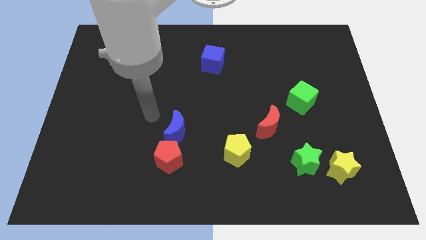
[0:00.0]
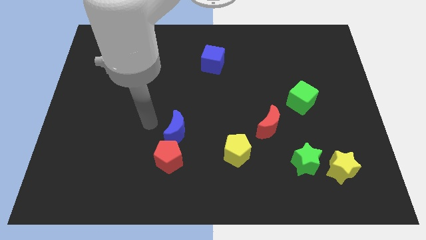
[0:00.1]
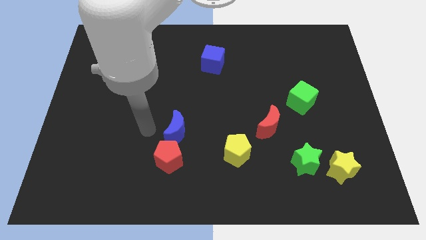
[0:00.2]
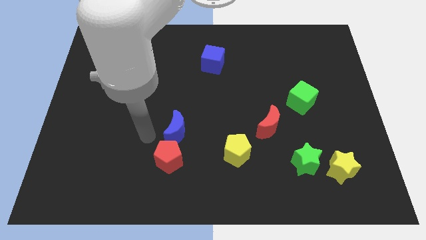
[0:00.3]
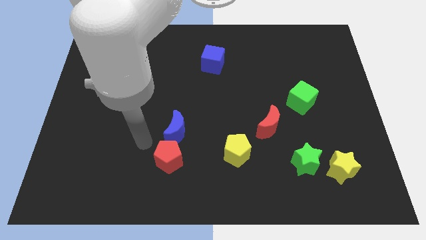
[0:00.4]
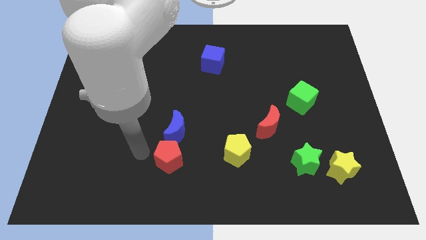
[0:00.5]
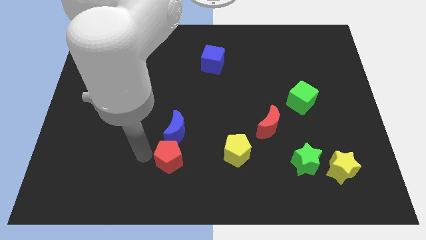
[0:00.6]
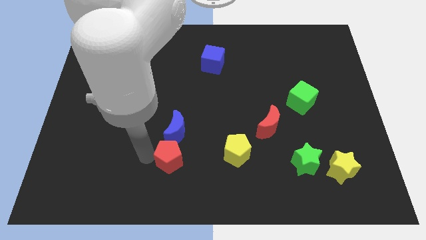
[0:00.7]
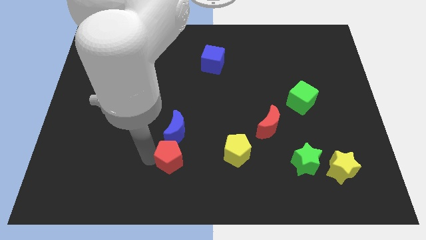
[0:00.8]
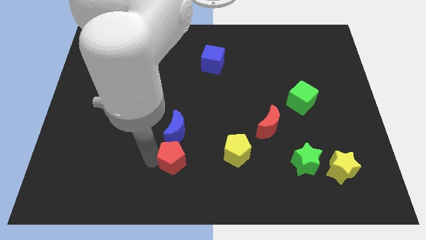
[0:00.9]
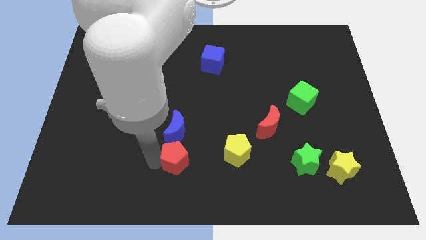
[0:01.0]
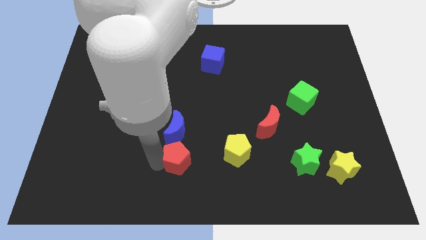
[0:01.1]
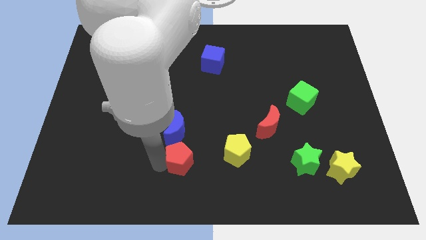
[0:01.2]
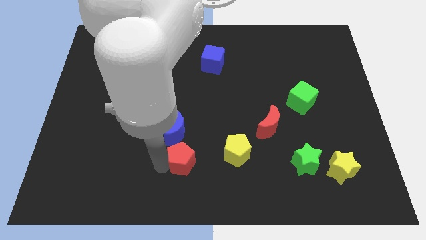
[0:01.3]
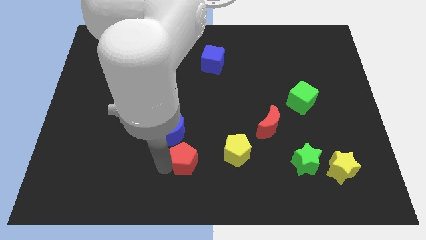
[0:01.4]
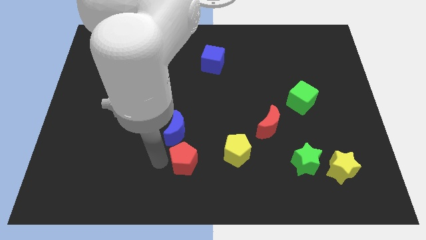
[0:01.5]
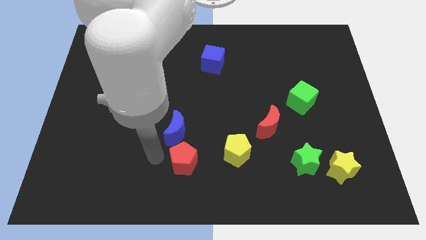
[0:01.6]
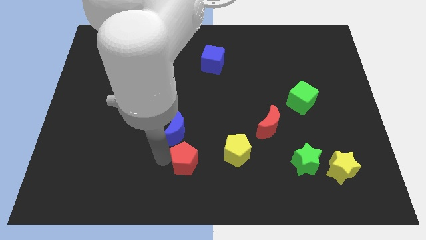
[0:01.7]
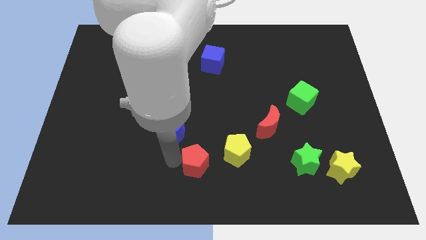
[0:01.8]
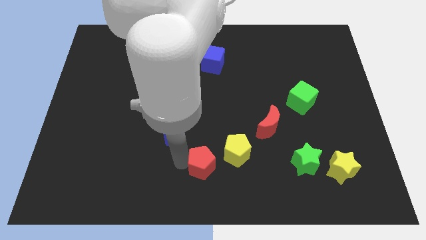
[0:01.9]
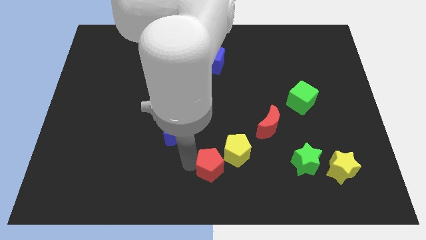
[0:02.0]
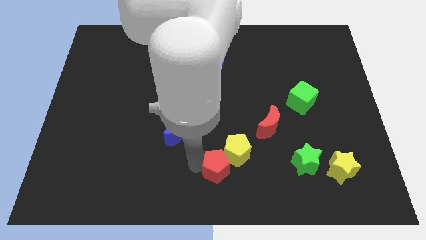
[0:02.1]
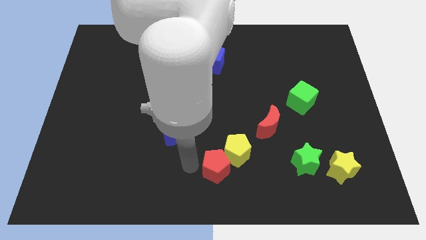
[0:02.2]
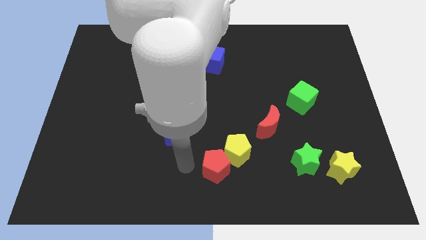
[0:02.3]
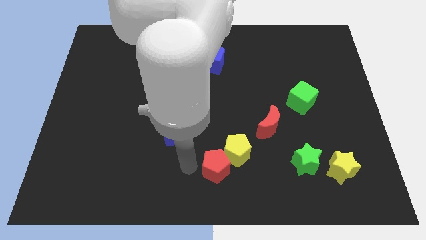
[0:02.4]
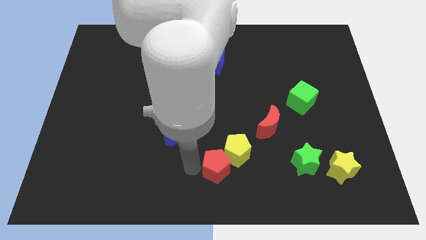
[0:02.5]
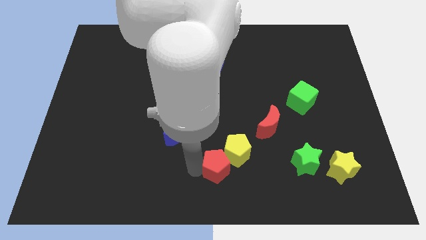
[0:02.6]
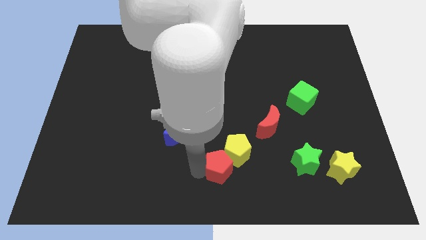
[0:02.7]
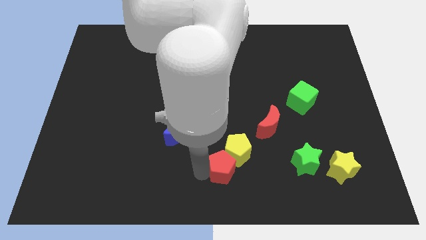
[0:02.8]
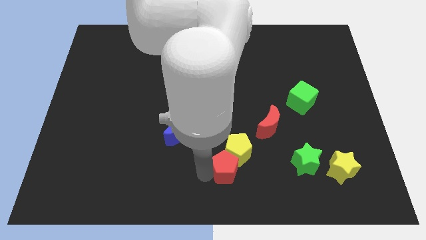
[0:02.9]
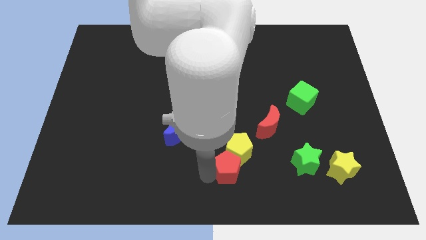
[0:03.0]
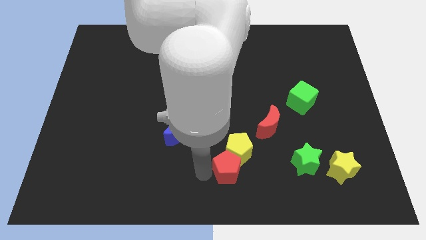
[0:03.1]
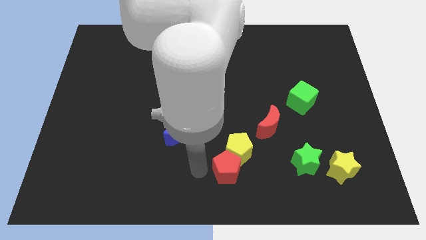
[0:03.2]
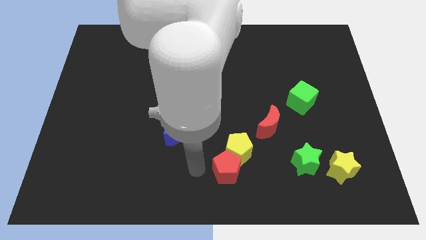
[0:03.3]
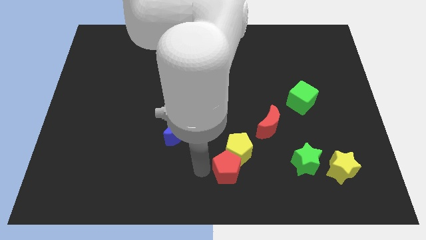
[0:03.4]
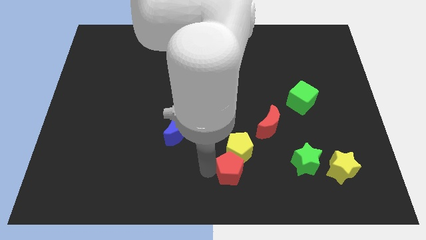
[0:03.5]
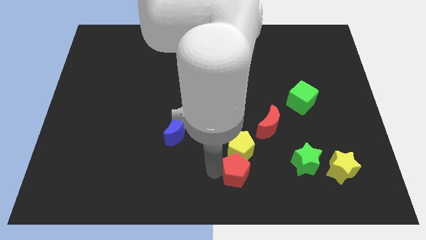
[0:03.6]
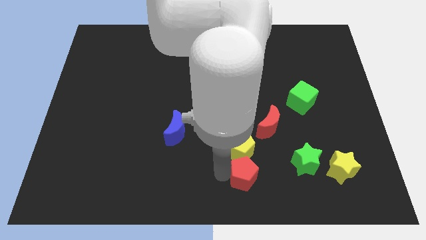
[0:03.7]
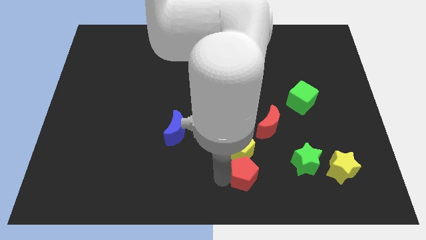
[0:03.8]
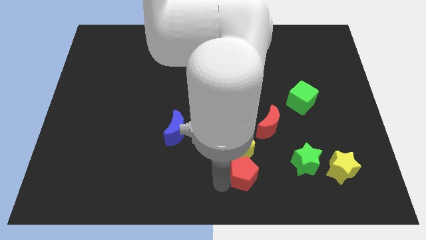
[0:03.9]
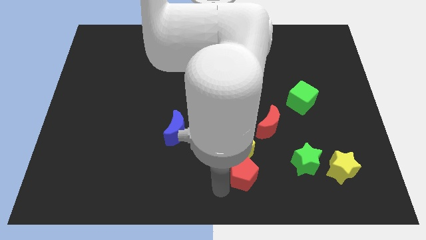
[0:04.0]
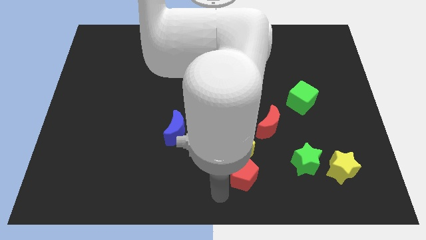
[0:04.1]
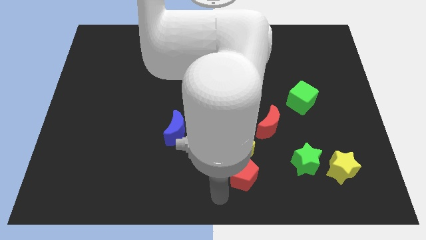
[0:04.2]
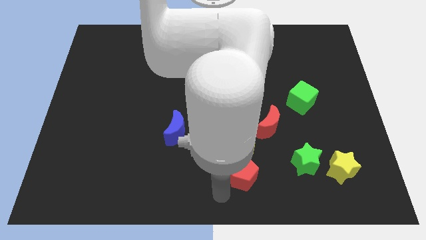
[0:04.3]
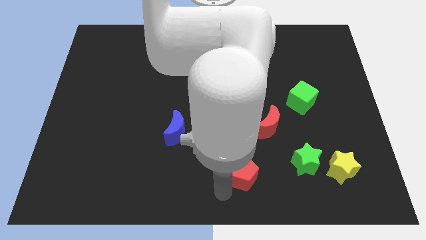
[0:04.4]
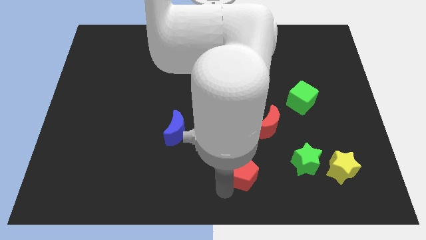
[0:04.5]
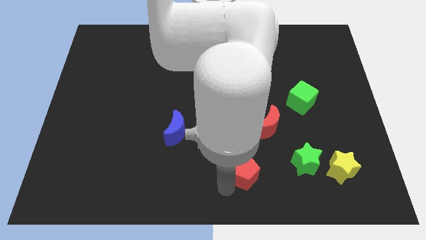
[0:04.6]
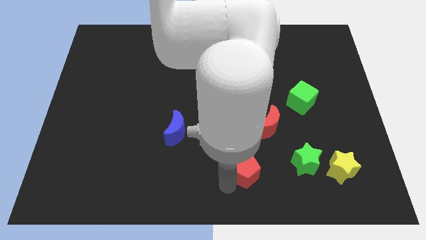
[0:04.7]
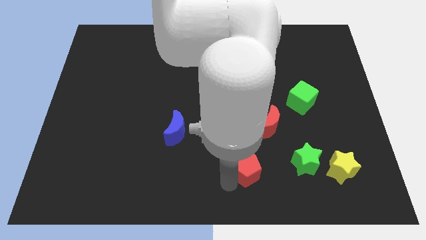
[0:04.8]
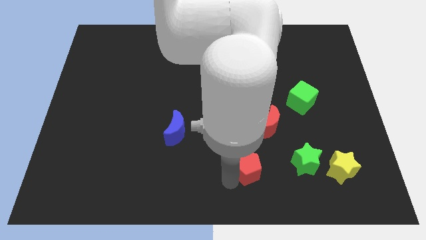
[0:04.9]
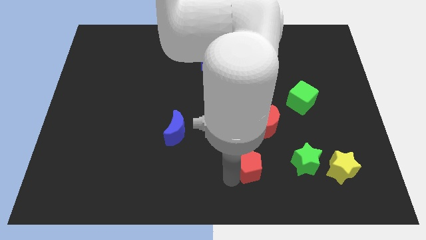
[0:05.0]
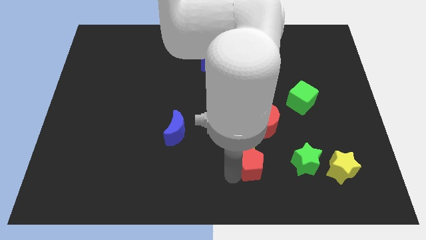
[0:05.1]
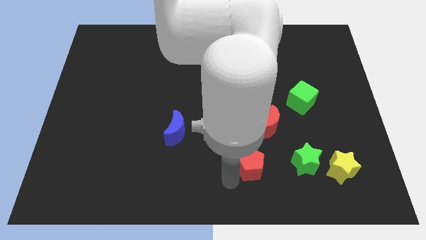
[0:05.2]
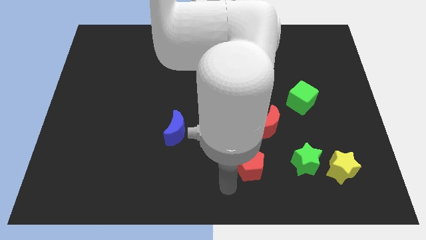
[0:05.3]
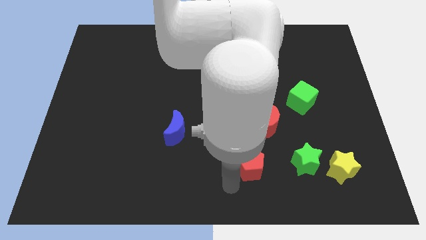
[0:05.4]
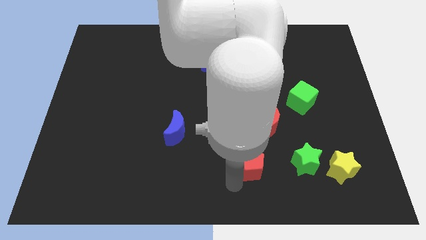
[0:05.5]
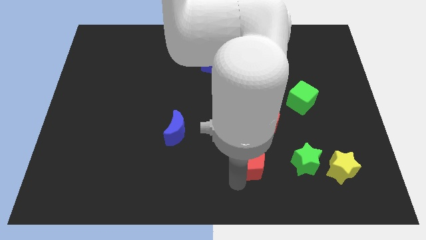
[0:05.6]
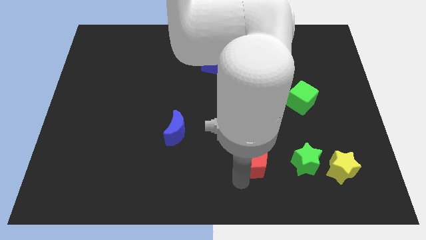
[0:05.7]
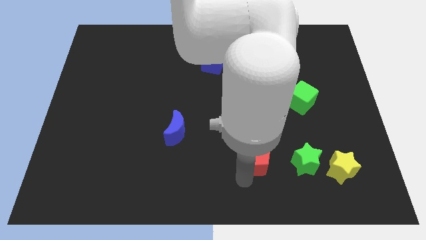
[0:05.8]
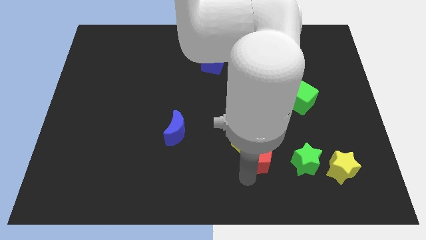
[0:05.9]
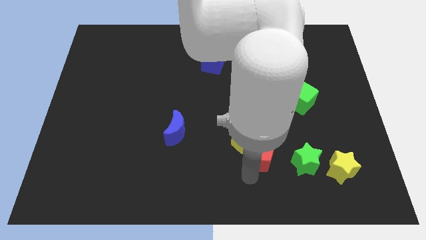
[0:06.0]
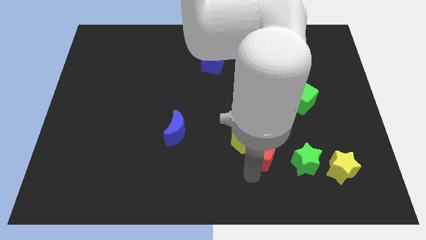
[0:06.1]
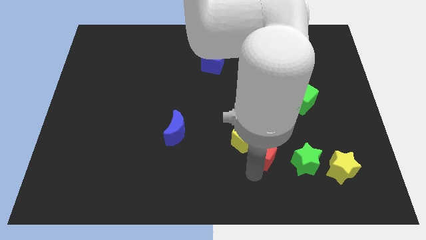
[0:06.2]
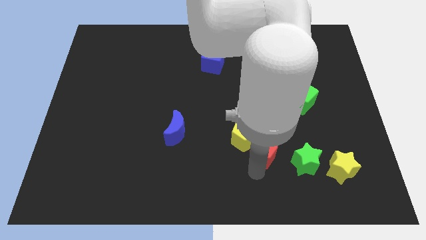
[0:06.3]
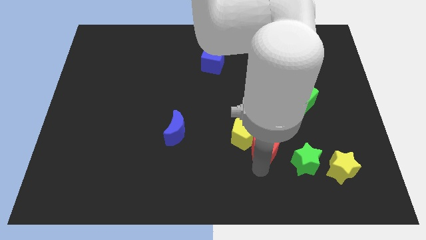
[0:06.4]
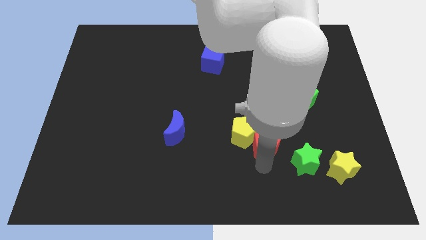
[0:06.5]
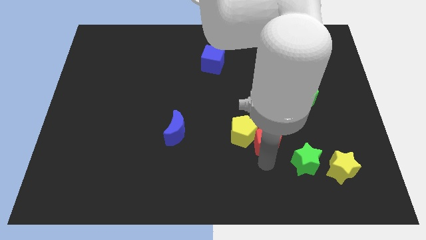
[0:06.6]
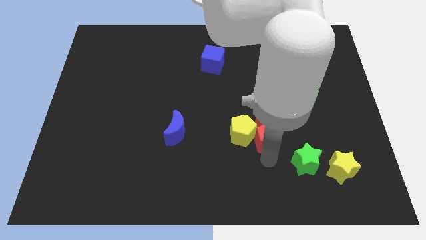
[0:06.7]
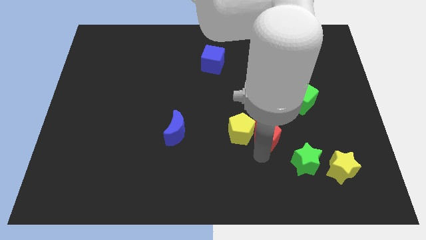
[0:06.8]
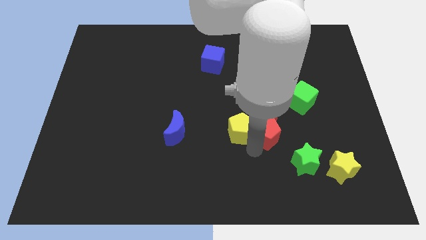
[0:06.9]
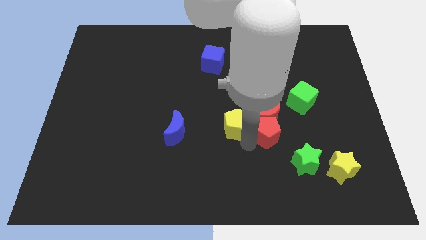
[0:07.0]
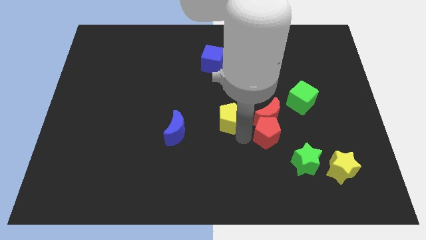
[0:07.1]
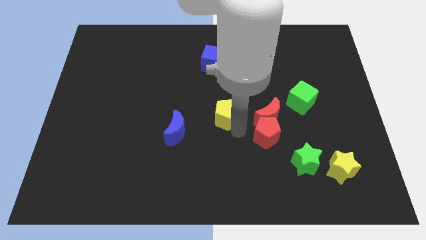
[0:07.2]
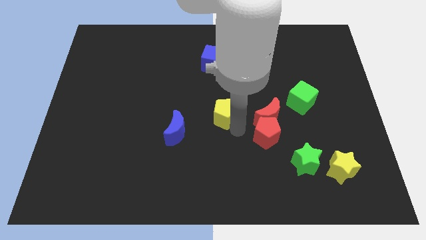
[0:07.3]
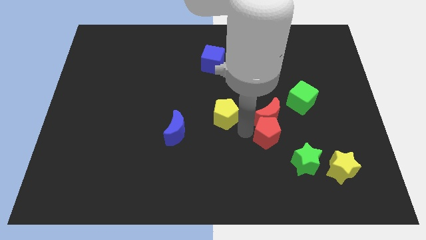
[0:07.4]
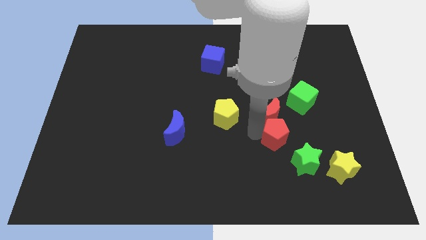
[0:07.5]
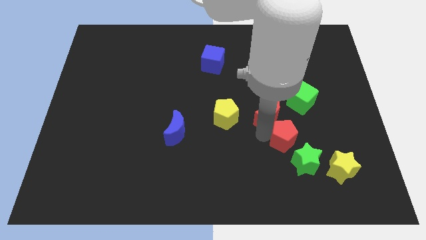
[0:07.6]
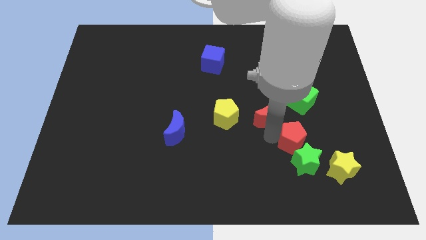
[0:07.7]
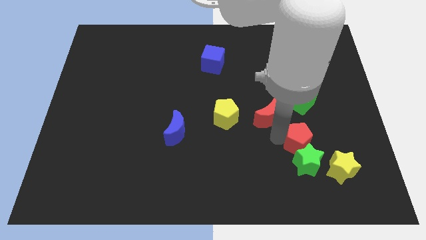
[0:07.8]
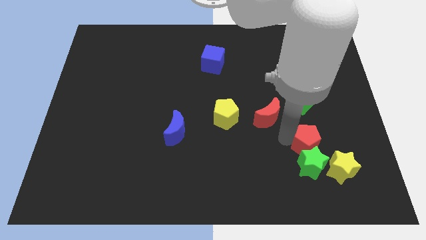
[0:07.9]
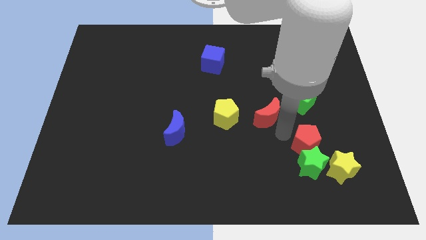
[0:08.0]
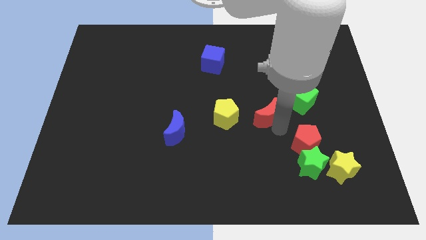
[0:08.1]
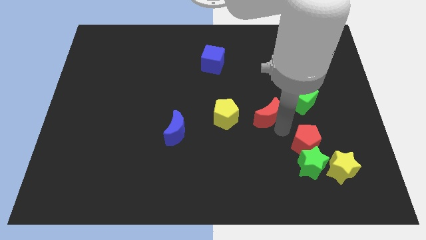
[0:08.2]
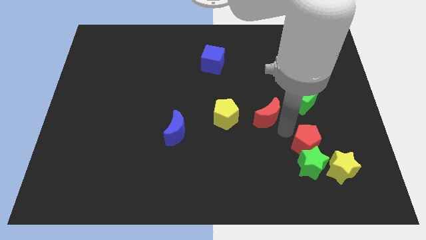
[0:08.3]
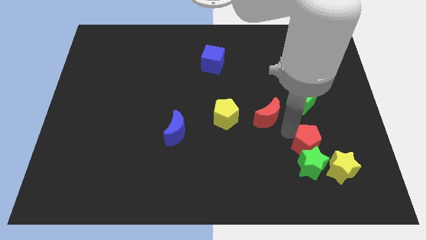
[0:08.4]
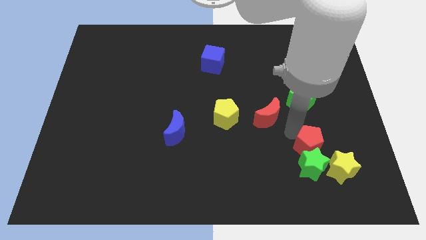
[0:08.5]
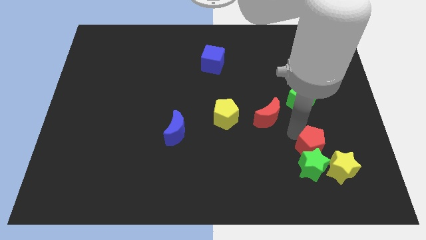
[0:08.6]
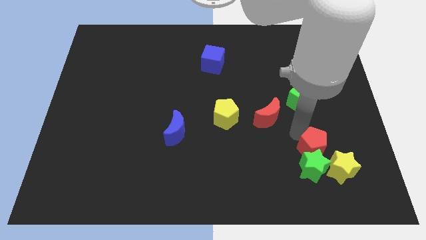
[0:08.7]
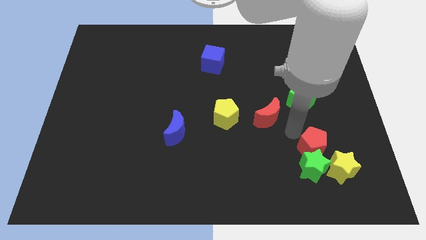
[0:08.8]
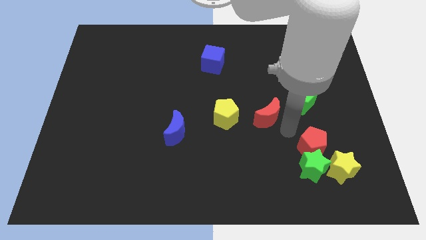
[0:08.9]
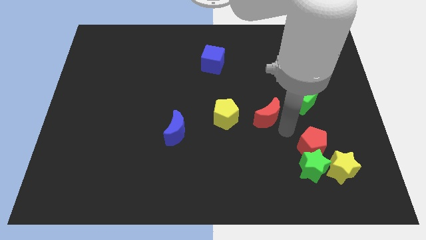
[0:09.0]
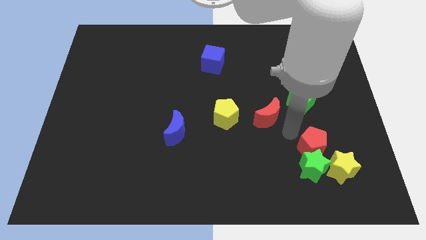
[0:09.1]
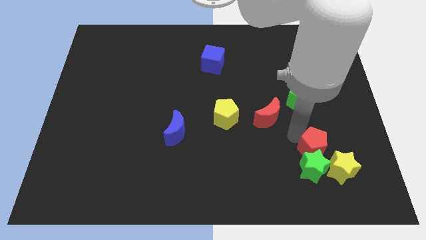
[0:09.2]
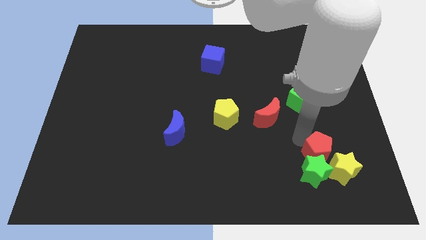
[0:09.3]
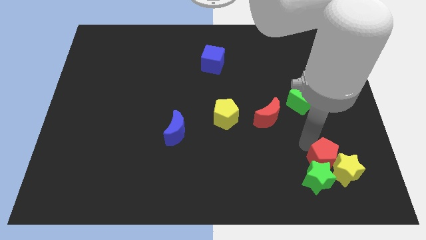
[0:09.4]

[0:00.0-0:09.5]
put the red pentagon towards the yellow star
